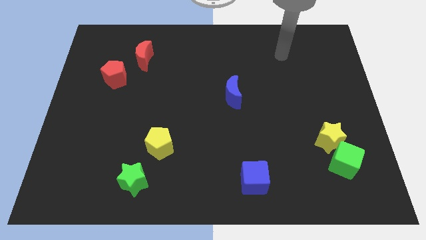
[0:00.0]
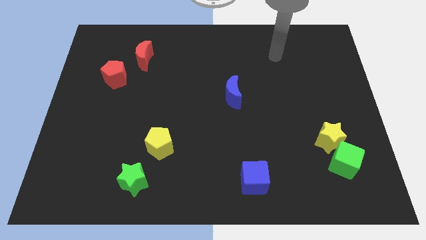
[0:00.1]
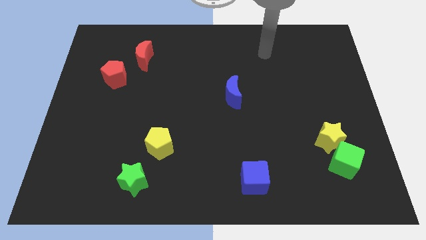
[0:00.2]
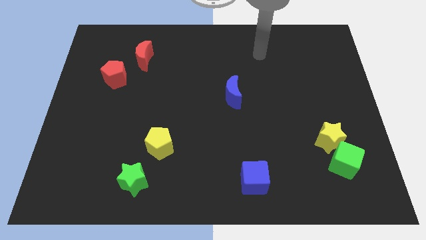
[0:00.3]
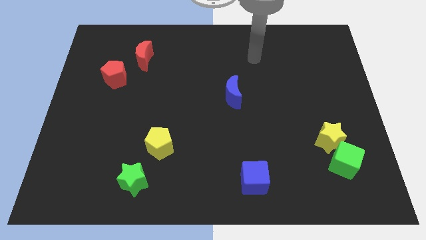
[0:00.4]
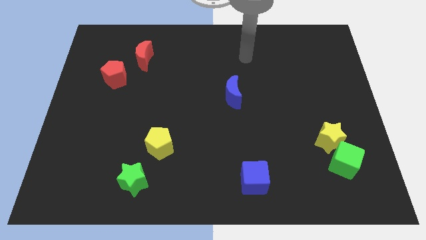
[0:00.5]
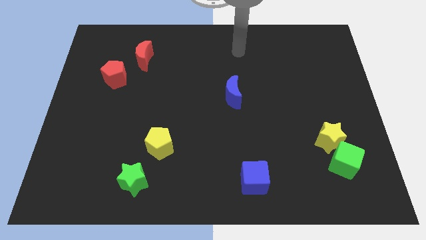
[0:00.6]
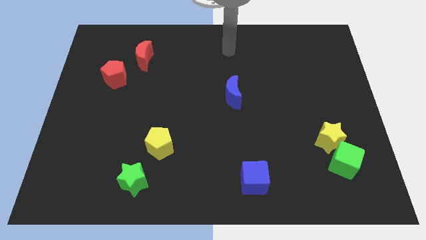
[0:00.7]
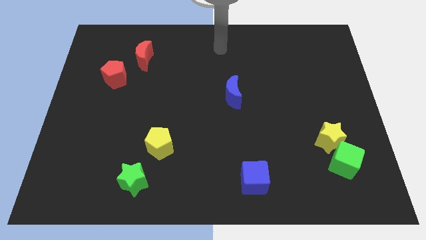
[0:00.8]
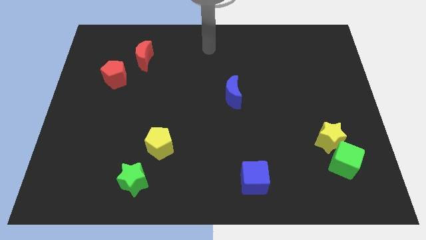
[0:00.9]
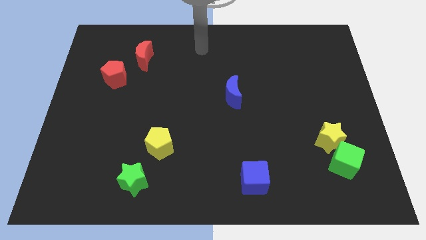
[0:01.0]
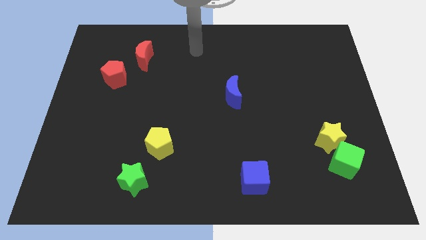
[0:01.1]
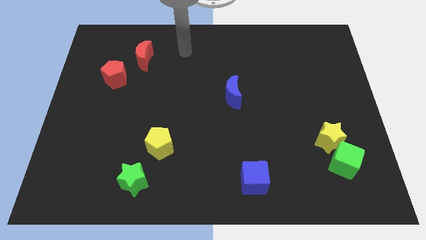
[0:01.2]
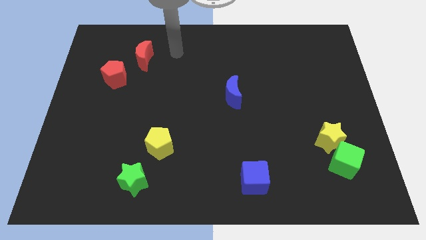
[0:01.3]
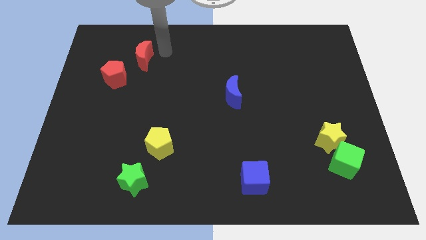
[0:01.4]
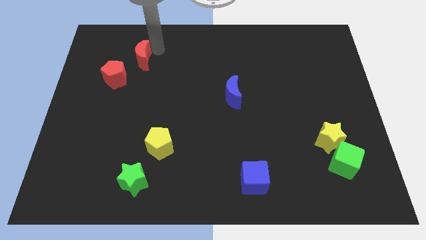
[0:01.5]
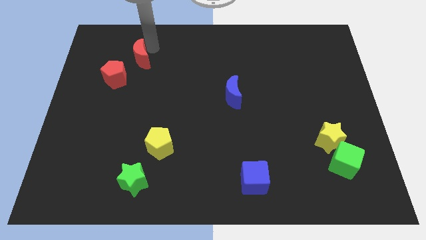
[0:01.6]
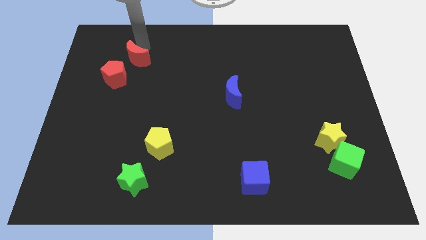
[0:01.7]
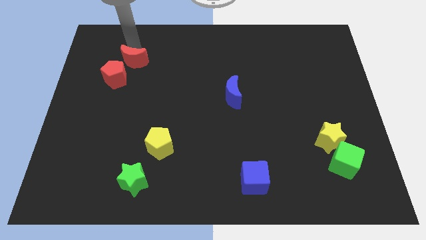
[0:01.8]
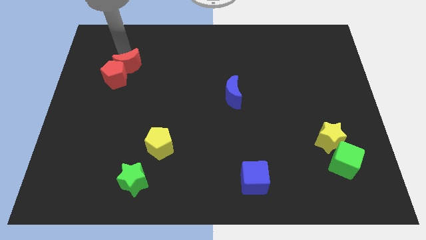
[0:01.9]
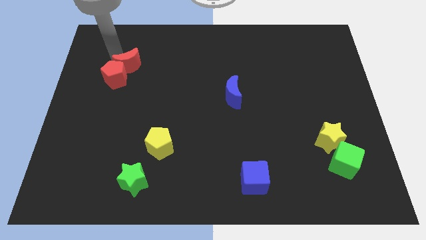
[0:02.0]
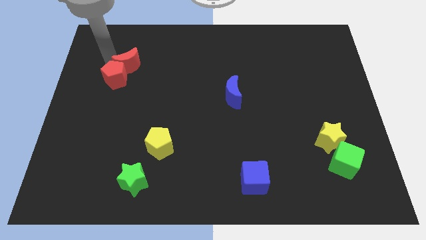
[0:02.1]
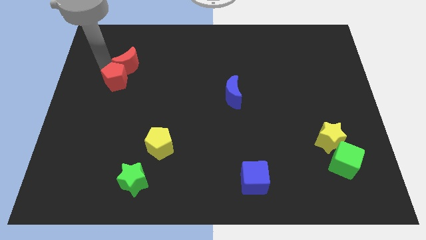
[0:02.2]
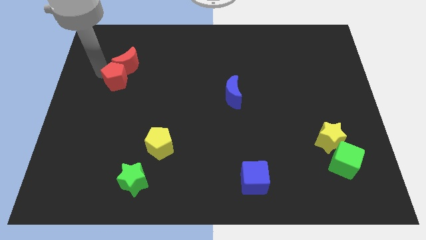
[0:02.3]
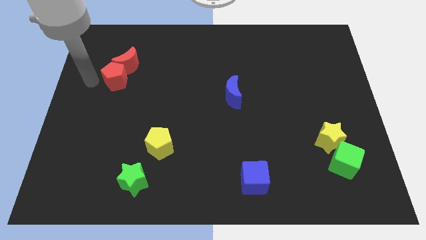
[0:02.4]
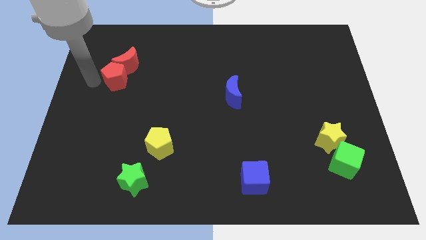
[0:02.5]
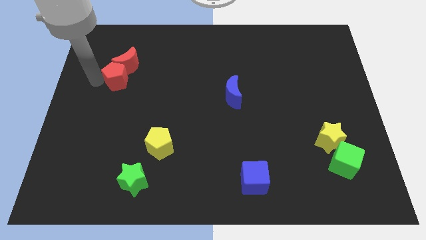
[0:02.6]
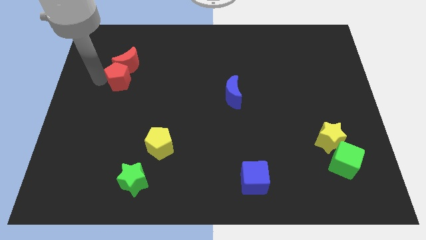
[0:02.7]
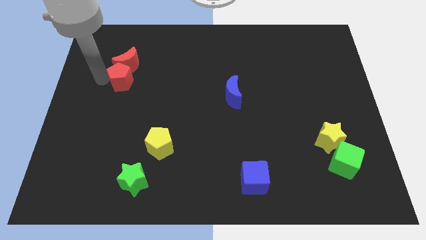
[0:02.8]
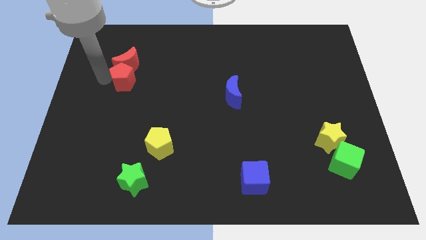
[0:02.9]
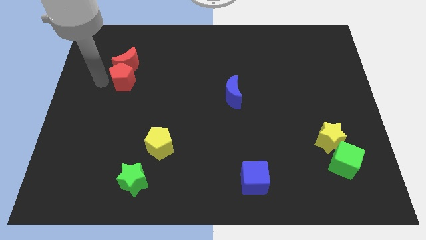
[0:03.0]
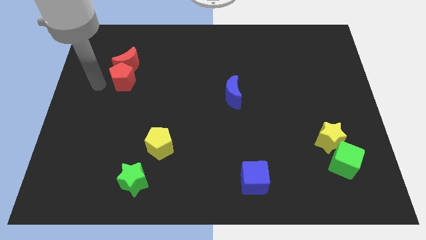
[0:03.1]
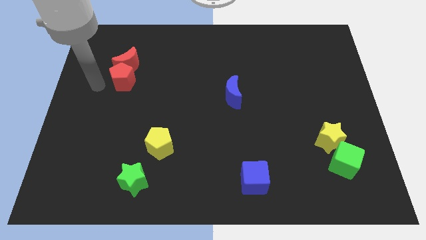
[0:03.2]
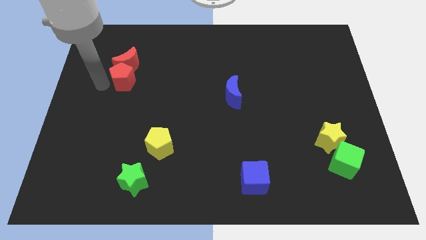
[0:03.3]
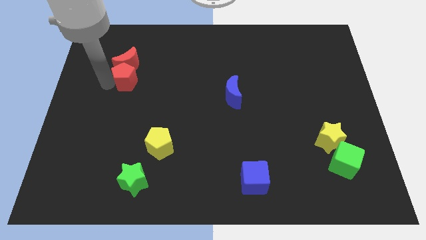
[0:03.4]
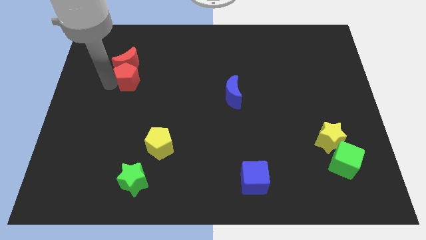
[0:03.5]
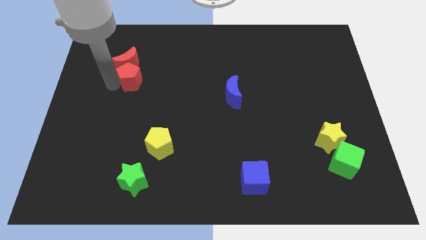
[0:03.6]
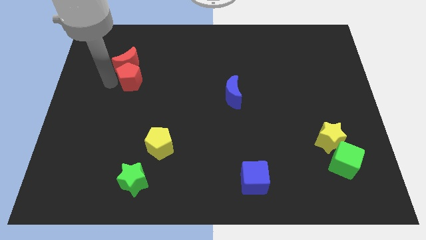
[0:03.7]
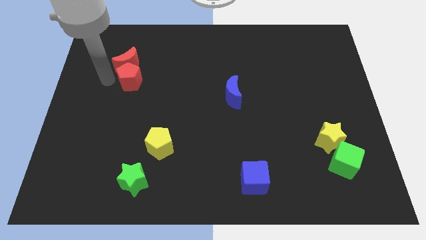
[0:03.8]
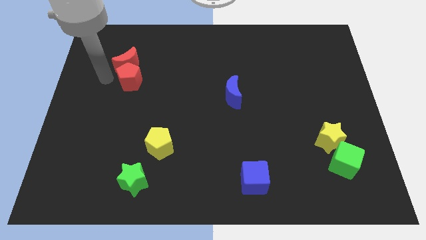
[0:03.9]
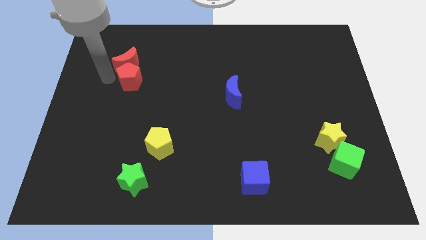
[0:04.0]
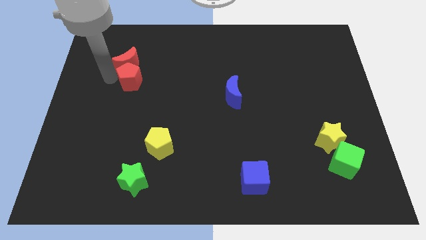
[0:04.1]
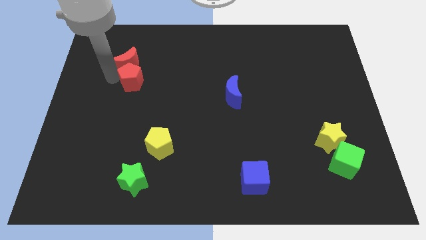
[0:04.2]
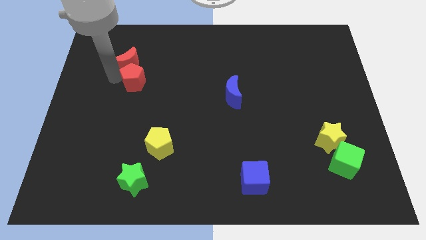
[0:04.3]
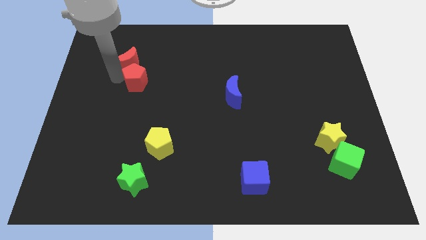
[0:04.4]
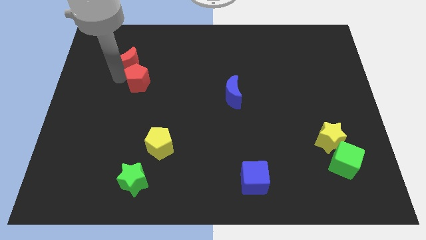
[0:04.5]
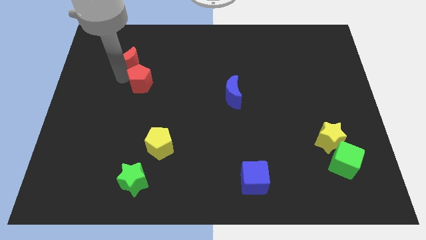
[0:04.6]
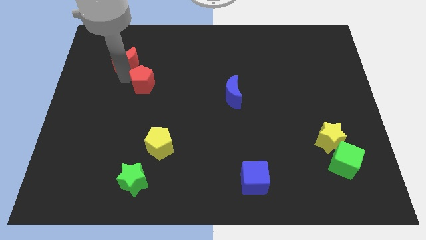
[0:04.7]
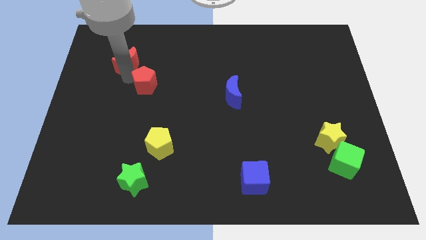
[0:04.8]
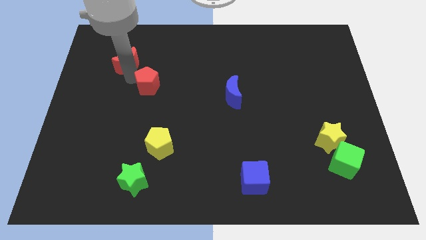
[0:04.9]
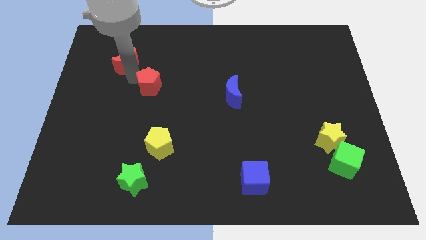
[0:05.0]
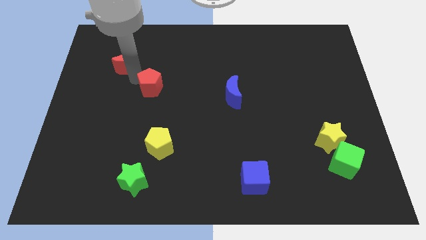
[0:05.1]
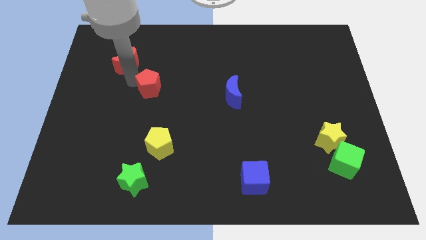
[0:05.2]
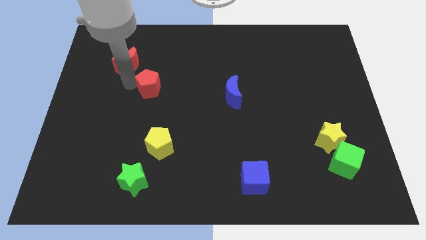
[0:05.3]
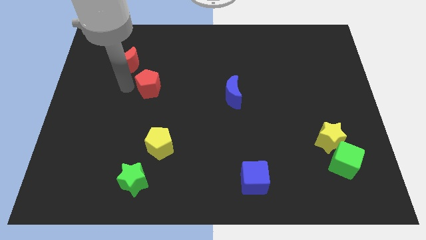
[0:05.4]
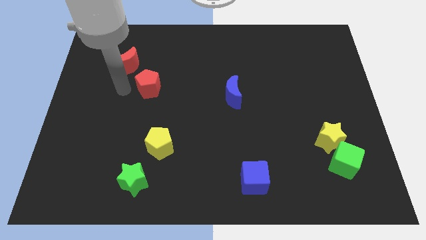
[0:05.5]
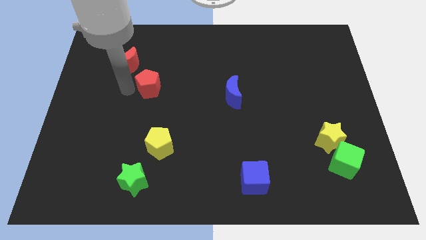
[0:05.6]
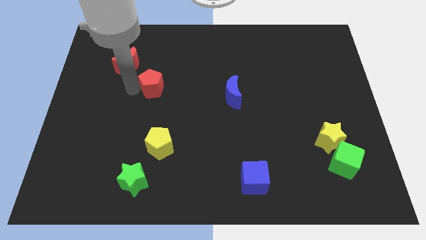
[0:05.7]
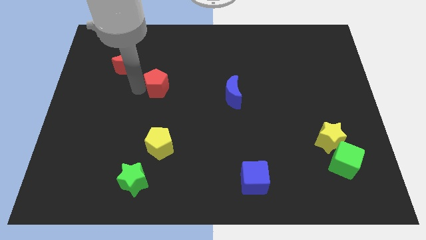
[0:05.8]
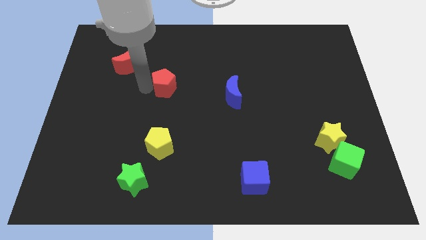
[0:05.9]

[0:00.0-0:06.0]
push the red pentagon to the middle of the board
